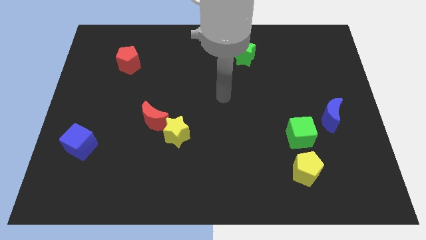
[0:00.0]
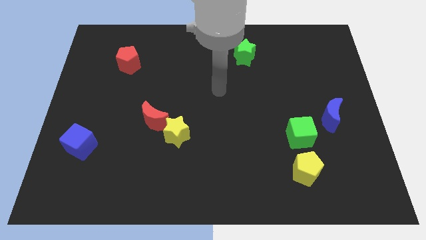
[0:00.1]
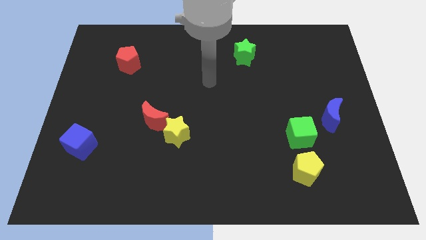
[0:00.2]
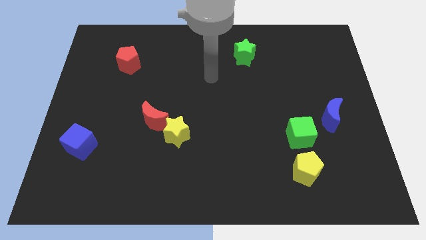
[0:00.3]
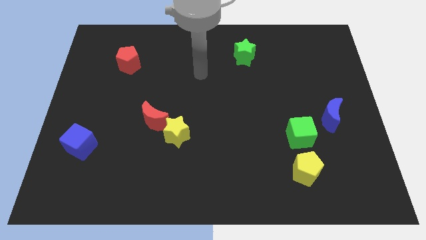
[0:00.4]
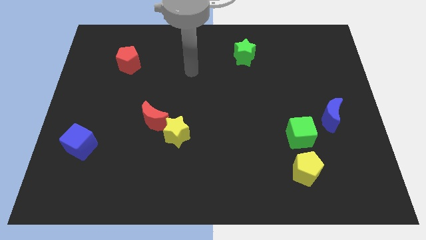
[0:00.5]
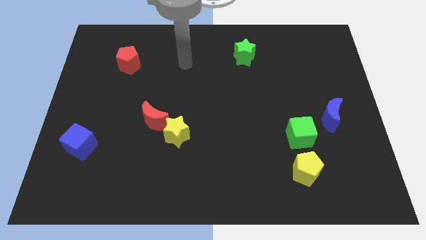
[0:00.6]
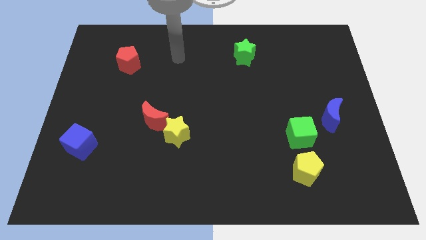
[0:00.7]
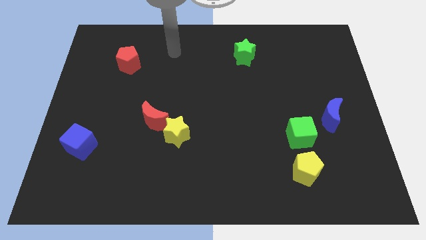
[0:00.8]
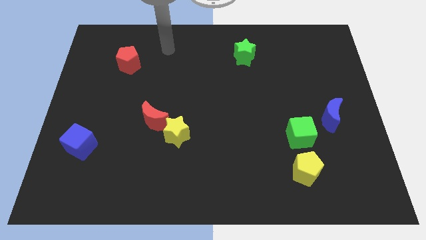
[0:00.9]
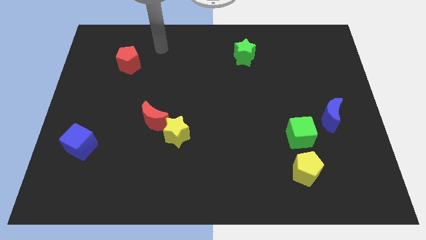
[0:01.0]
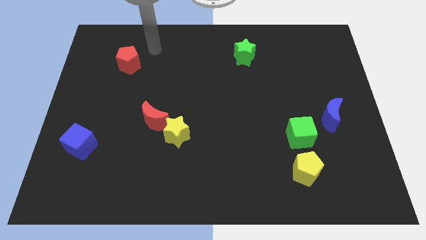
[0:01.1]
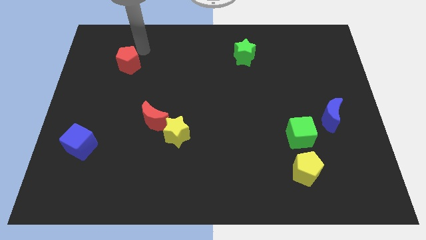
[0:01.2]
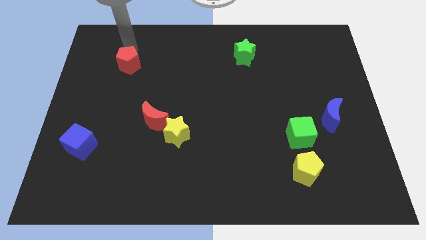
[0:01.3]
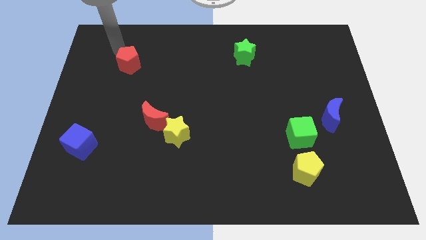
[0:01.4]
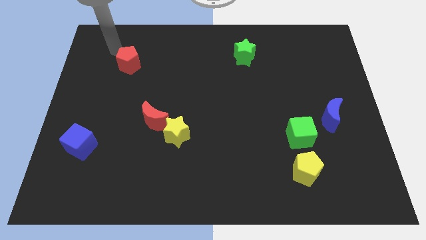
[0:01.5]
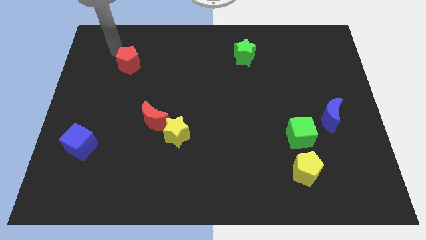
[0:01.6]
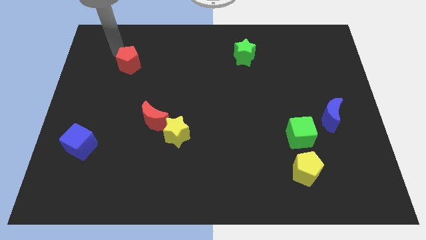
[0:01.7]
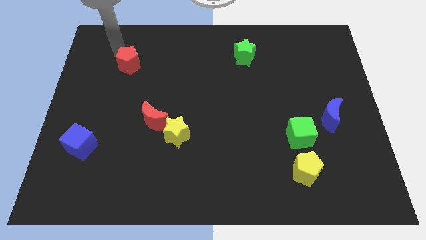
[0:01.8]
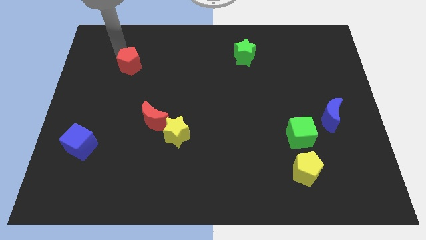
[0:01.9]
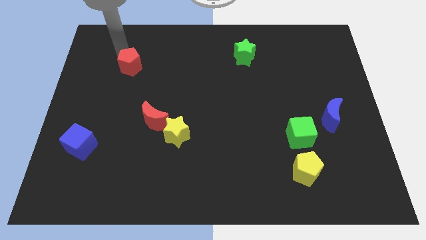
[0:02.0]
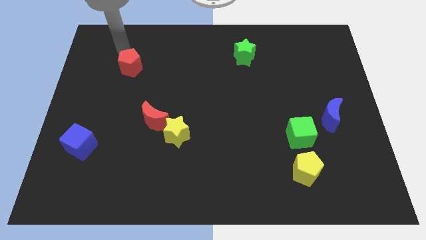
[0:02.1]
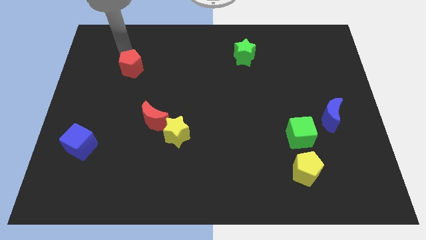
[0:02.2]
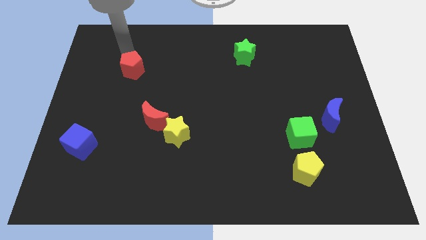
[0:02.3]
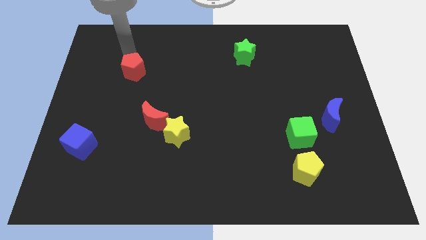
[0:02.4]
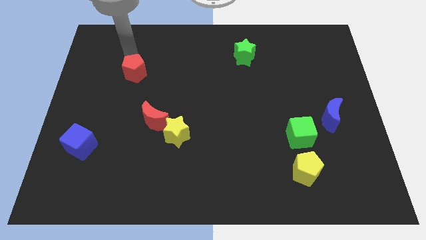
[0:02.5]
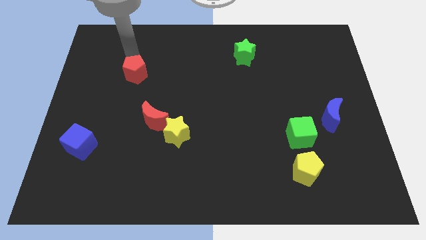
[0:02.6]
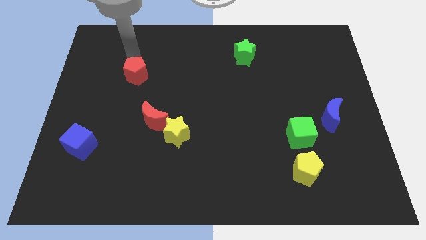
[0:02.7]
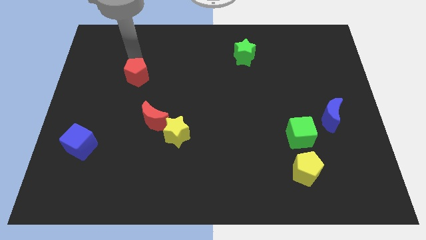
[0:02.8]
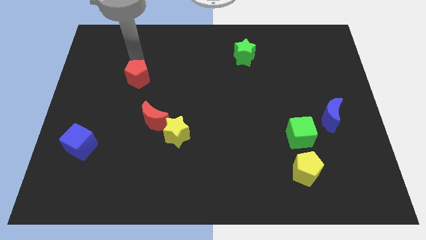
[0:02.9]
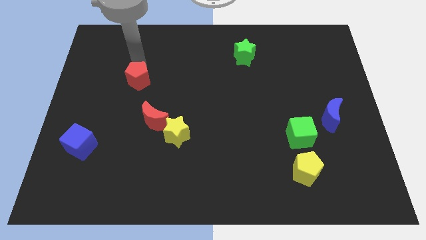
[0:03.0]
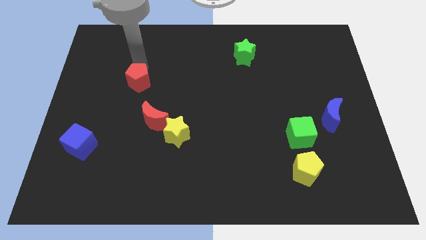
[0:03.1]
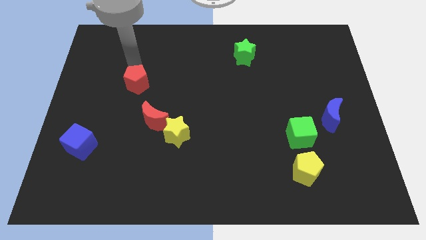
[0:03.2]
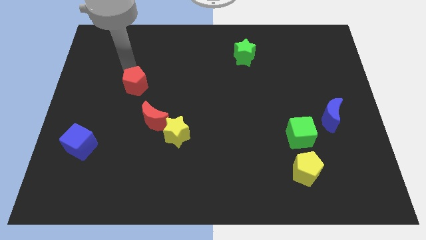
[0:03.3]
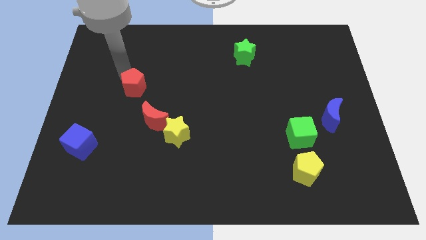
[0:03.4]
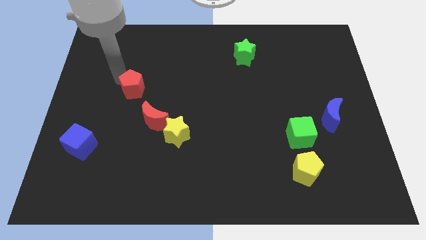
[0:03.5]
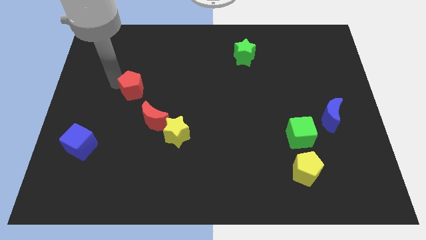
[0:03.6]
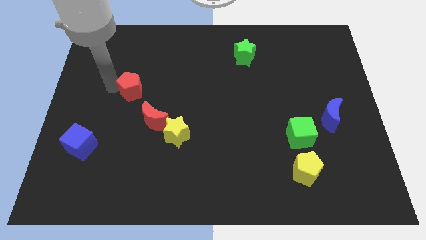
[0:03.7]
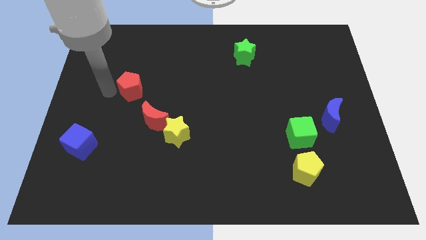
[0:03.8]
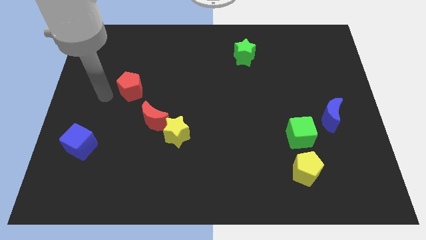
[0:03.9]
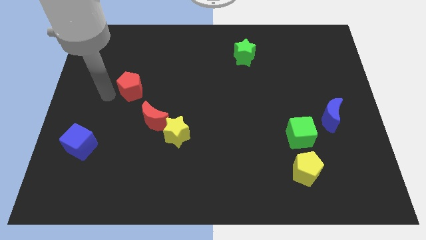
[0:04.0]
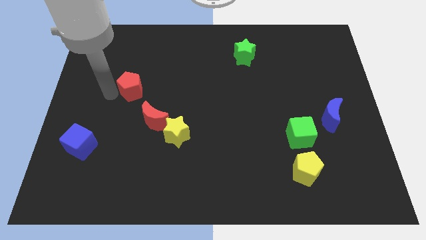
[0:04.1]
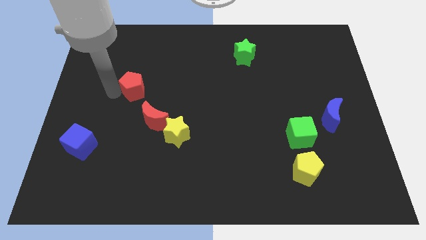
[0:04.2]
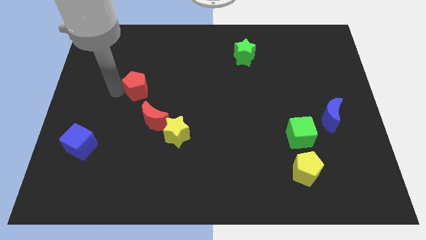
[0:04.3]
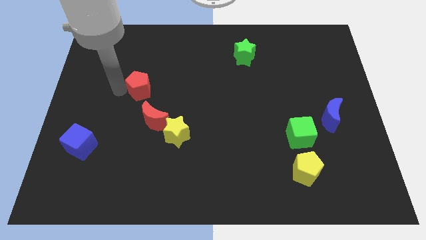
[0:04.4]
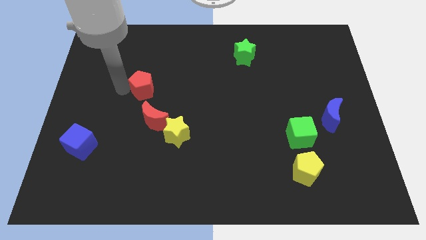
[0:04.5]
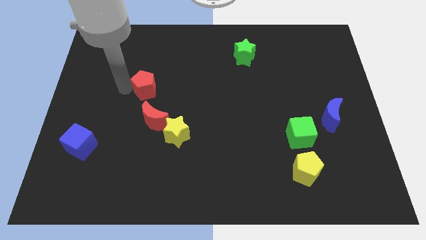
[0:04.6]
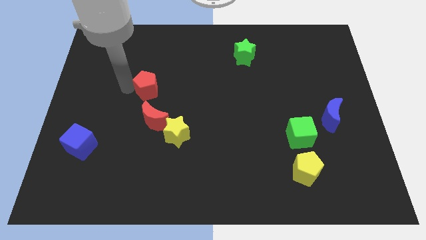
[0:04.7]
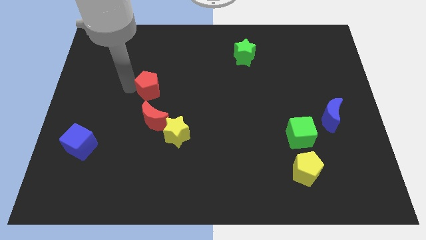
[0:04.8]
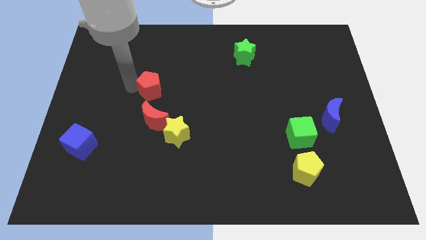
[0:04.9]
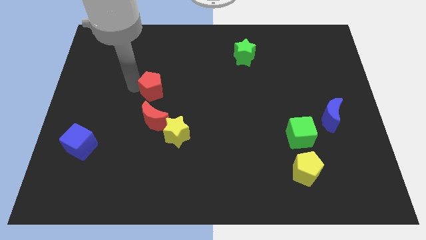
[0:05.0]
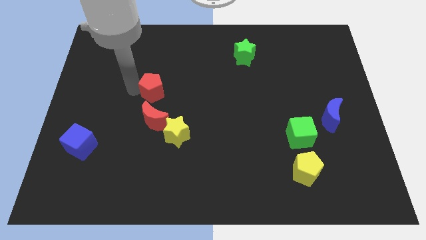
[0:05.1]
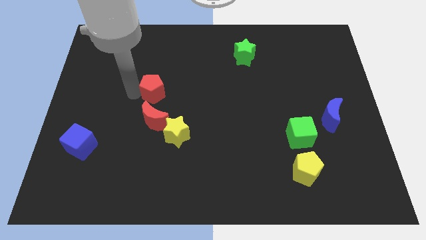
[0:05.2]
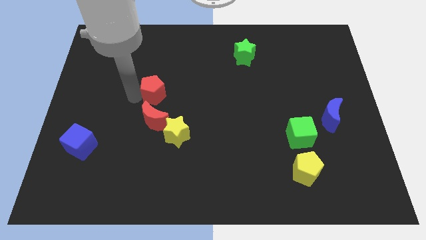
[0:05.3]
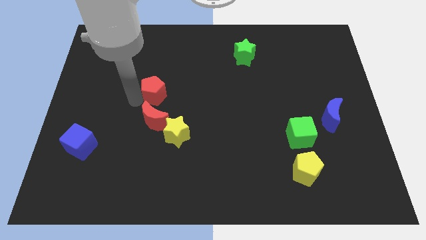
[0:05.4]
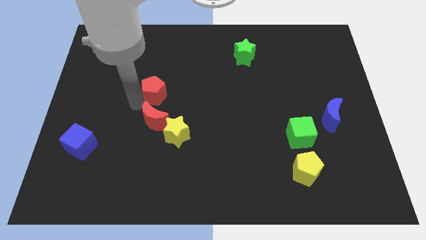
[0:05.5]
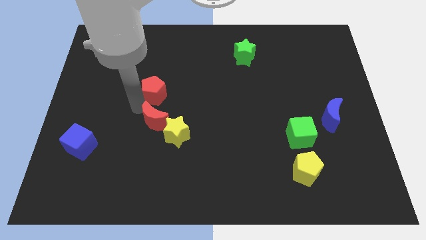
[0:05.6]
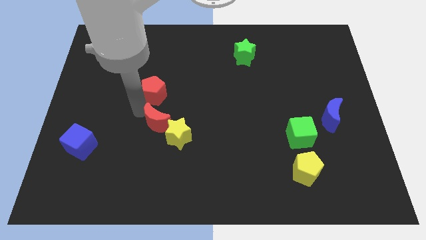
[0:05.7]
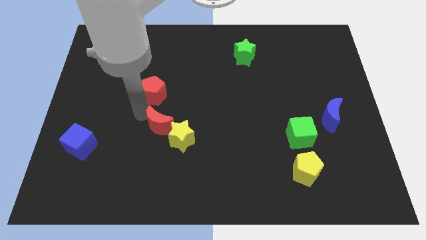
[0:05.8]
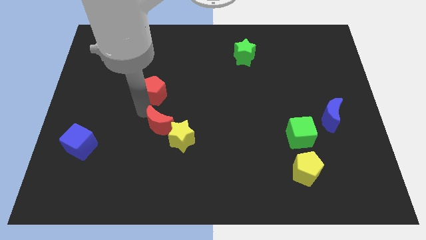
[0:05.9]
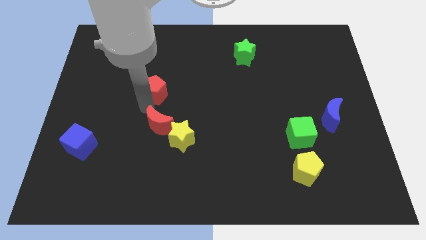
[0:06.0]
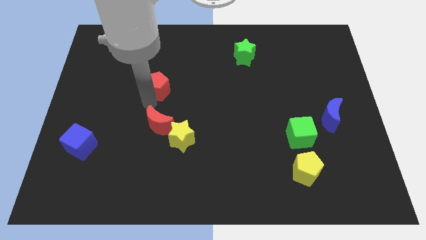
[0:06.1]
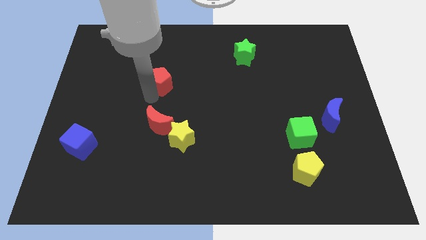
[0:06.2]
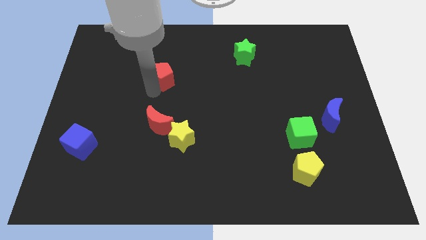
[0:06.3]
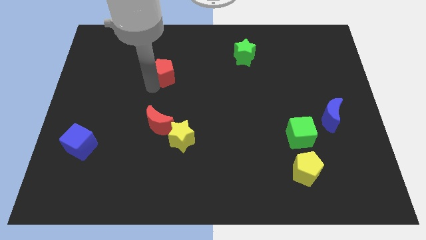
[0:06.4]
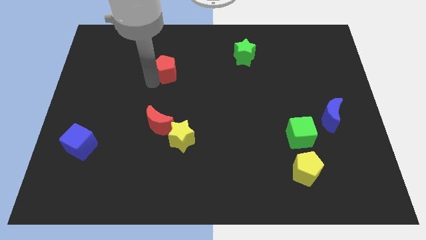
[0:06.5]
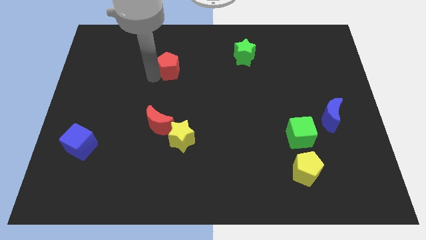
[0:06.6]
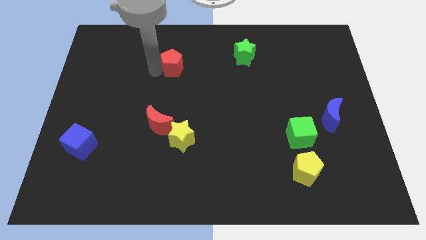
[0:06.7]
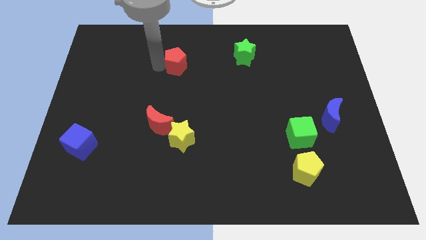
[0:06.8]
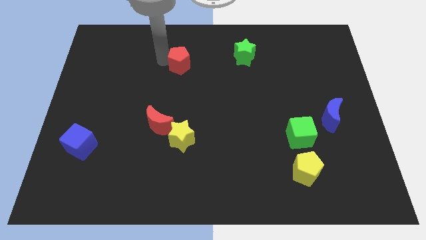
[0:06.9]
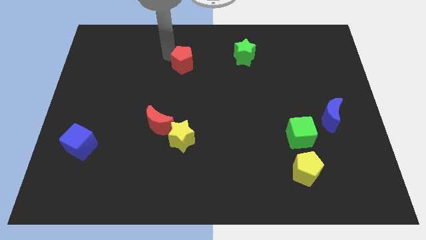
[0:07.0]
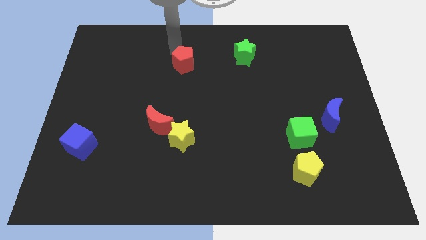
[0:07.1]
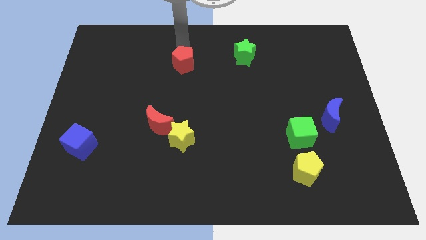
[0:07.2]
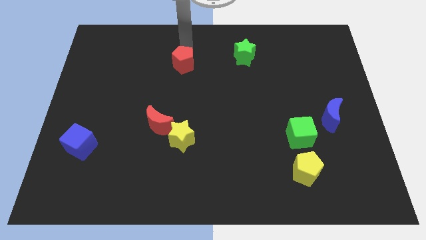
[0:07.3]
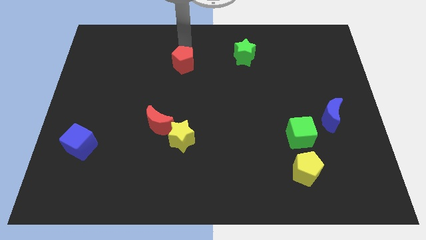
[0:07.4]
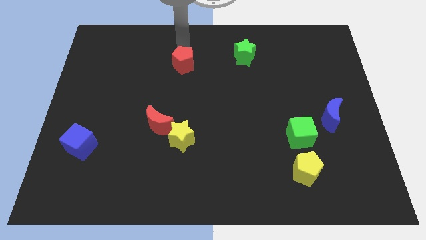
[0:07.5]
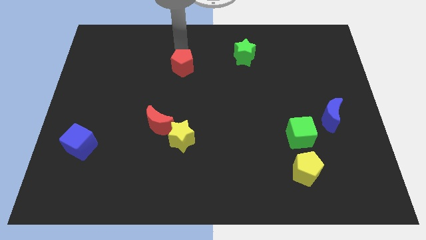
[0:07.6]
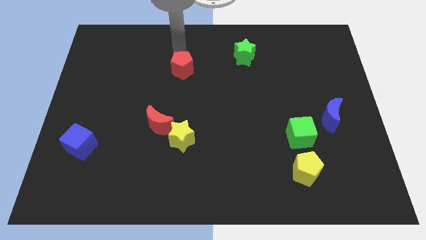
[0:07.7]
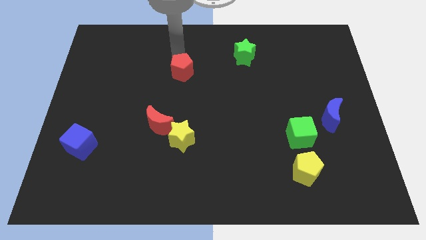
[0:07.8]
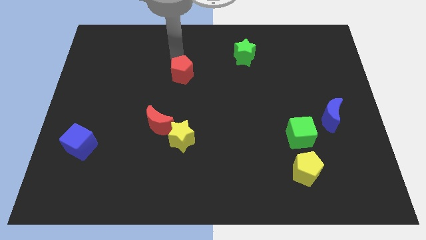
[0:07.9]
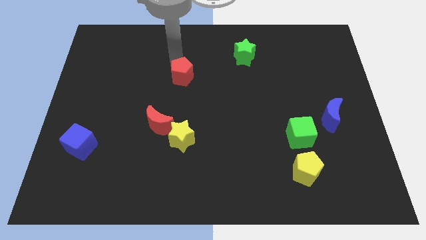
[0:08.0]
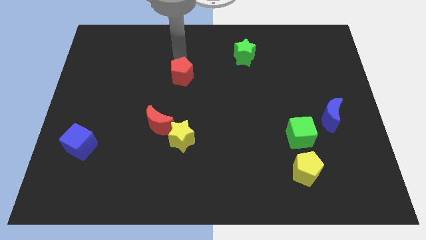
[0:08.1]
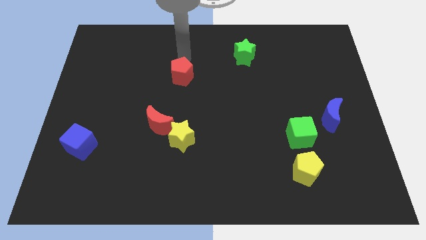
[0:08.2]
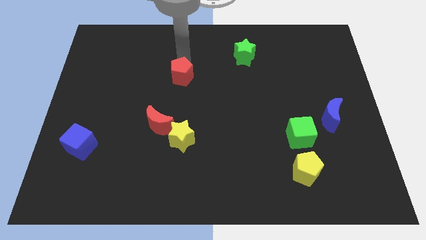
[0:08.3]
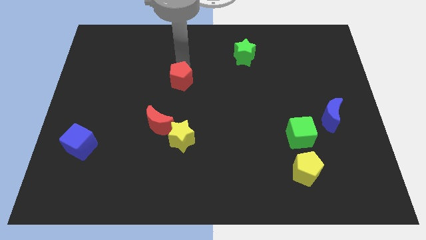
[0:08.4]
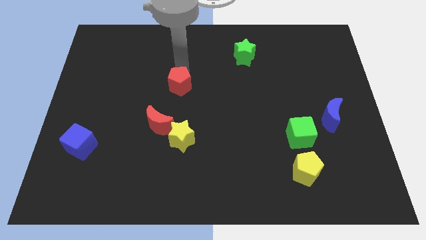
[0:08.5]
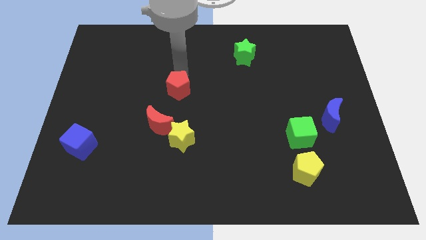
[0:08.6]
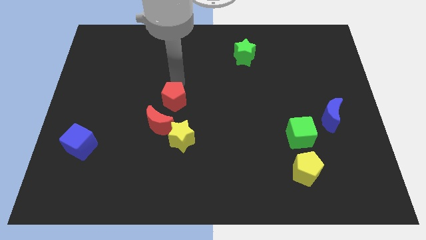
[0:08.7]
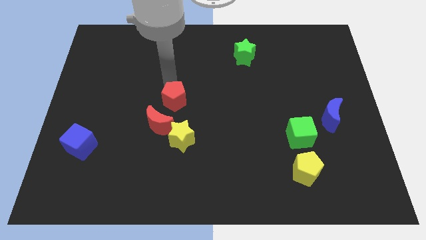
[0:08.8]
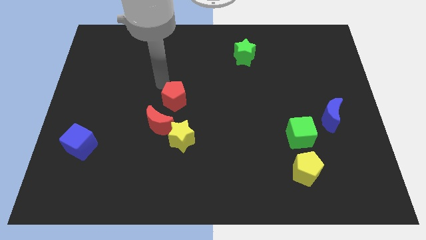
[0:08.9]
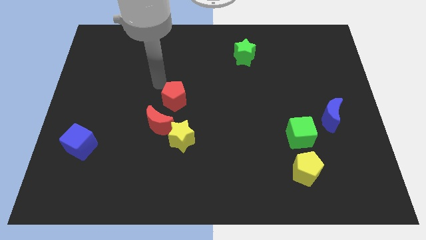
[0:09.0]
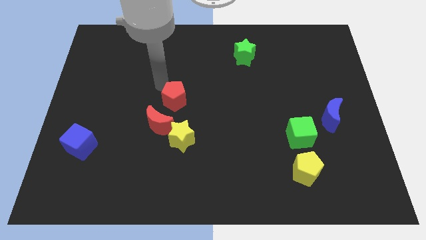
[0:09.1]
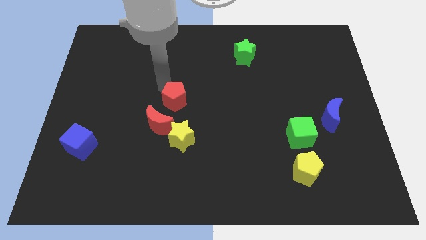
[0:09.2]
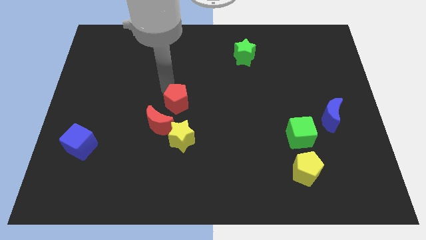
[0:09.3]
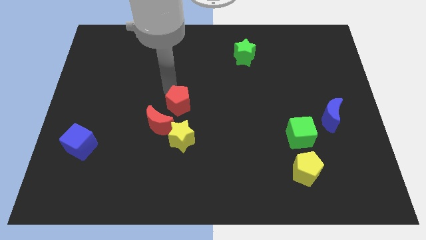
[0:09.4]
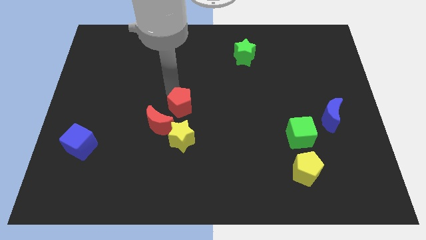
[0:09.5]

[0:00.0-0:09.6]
move the red pentagon downwards and right diagonally
